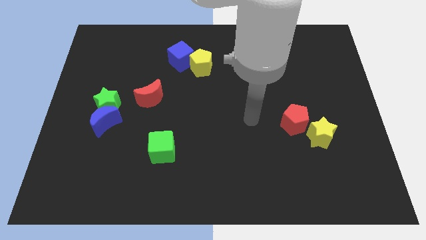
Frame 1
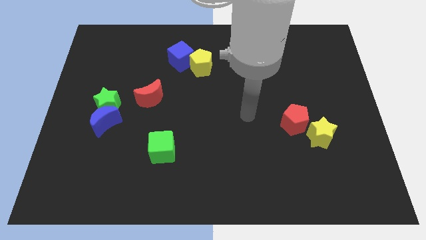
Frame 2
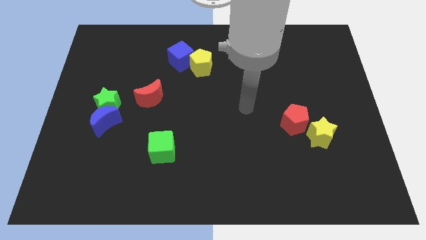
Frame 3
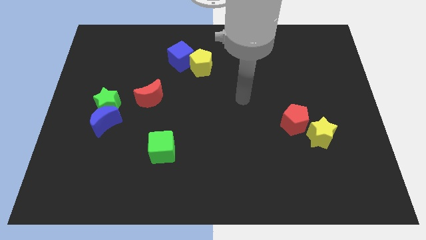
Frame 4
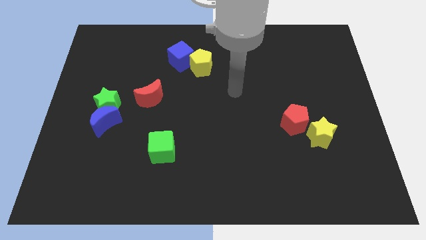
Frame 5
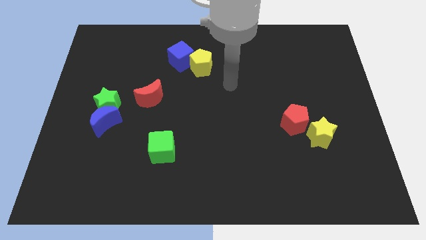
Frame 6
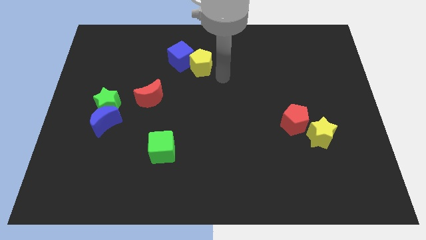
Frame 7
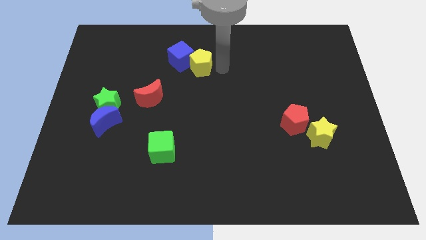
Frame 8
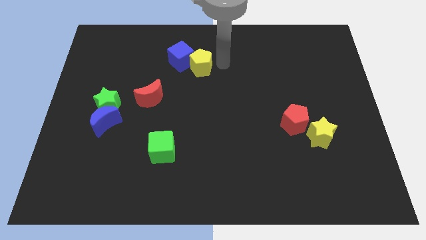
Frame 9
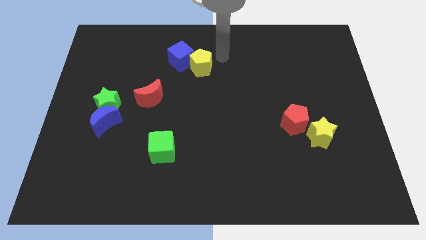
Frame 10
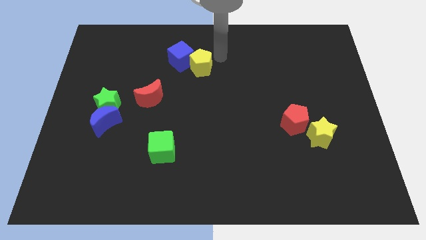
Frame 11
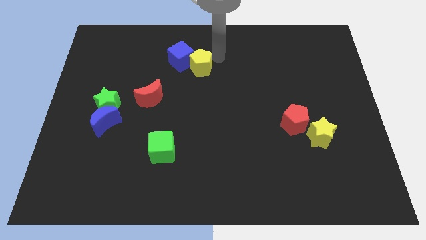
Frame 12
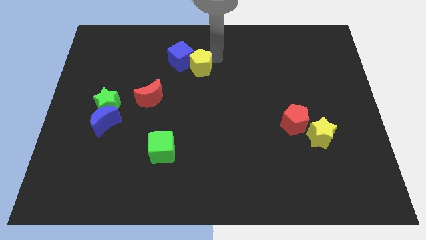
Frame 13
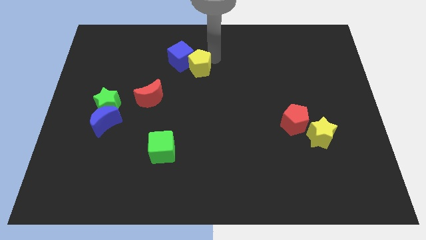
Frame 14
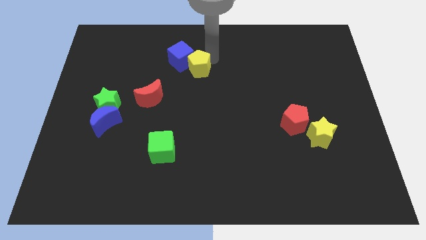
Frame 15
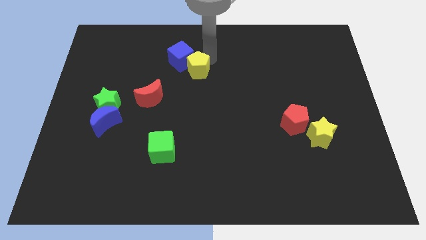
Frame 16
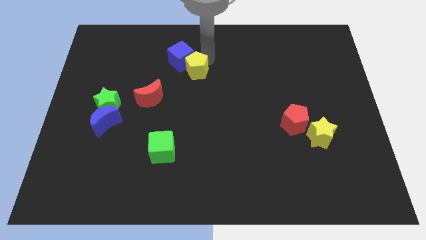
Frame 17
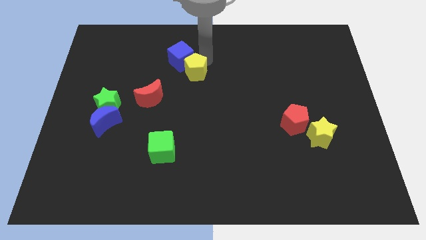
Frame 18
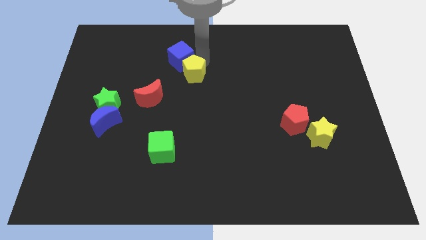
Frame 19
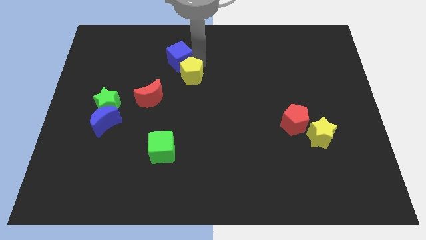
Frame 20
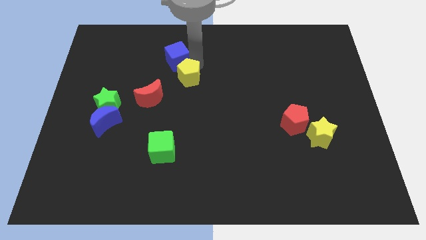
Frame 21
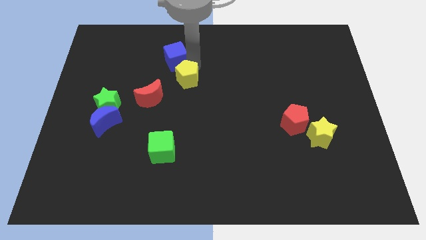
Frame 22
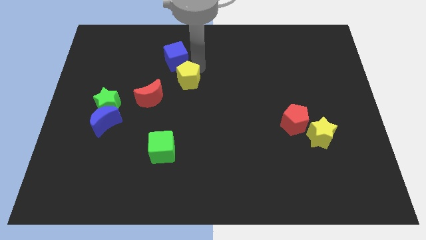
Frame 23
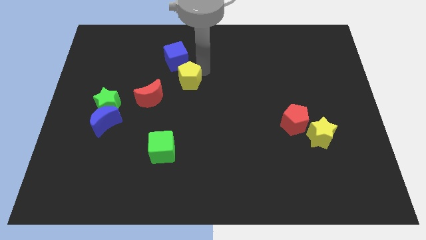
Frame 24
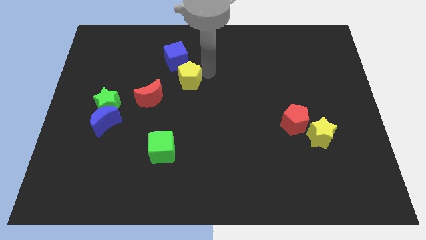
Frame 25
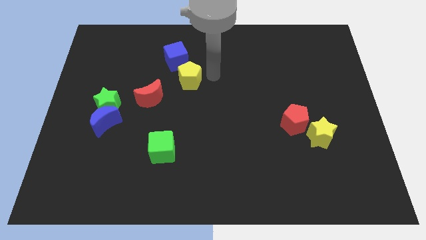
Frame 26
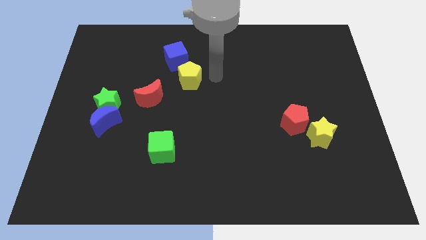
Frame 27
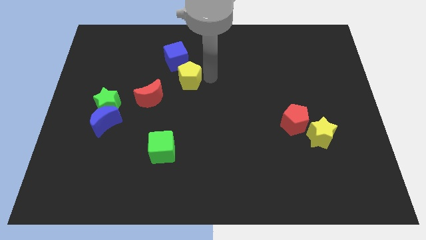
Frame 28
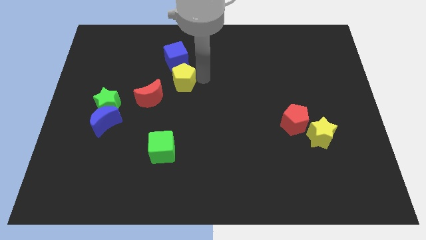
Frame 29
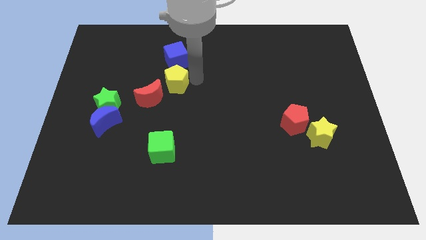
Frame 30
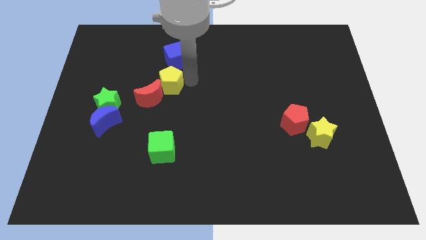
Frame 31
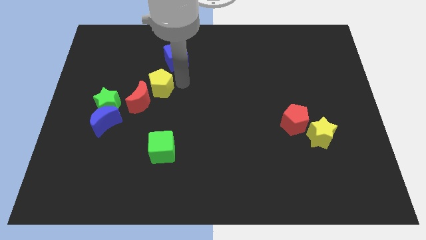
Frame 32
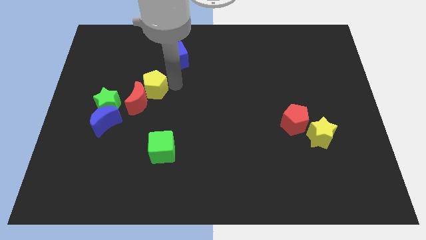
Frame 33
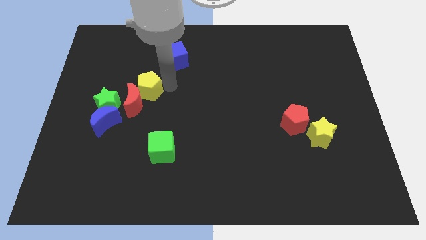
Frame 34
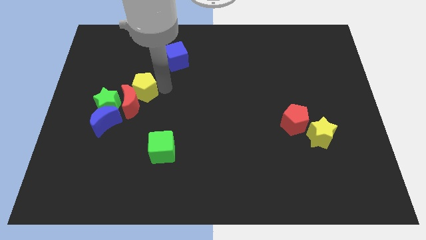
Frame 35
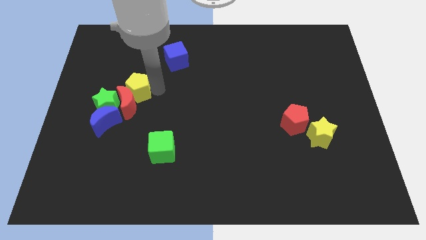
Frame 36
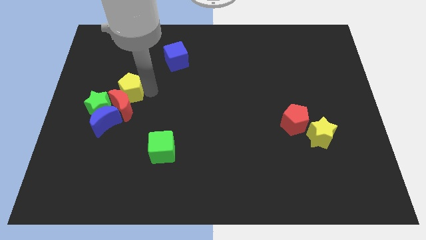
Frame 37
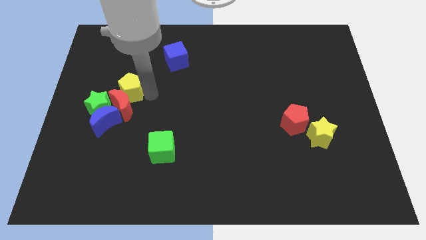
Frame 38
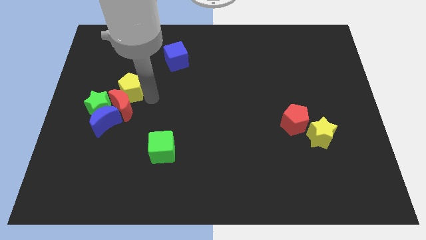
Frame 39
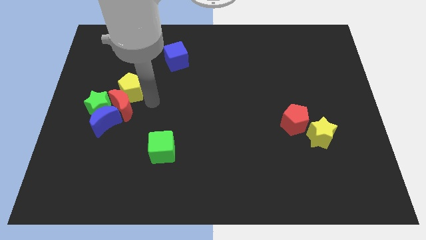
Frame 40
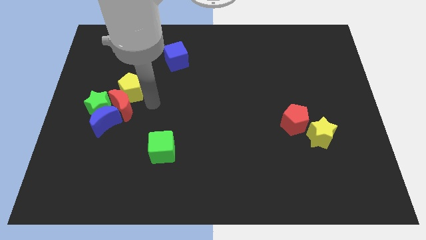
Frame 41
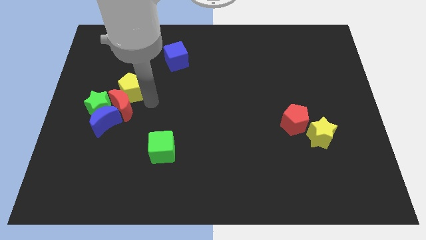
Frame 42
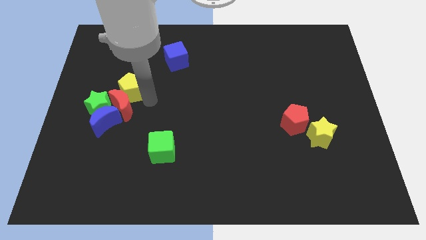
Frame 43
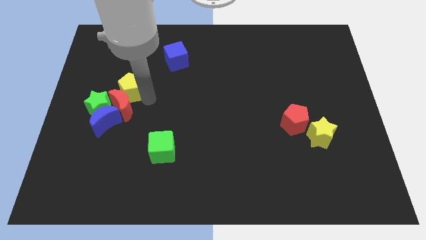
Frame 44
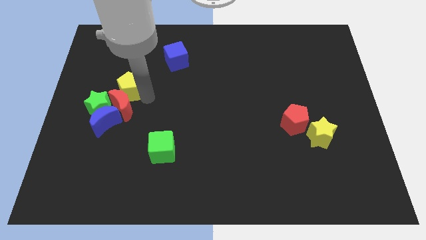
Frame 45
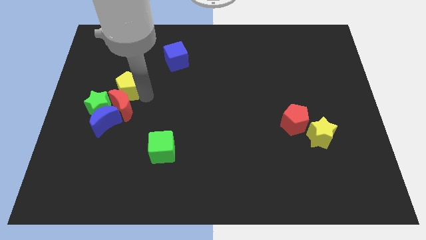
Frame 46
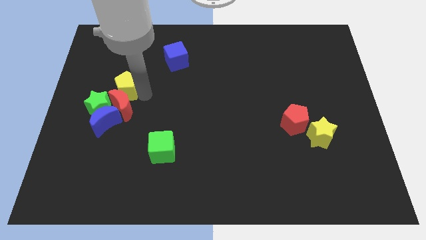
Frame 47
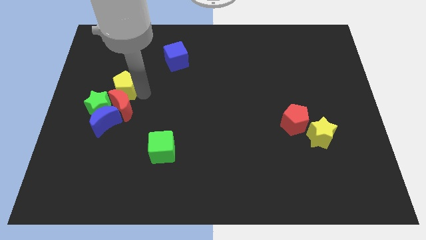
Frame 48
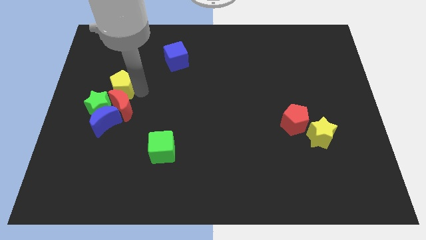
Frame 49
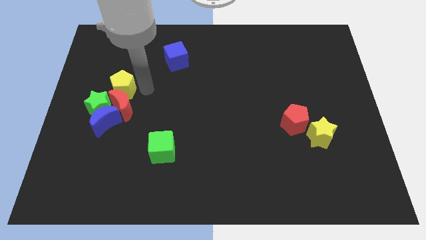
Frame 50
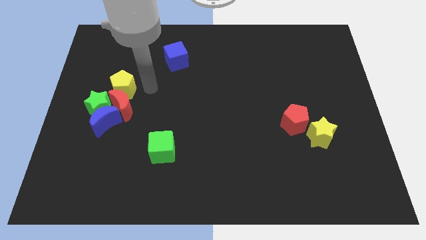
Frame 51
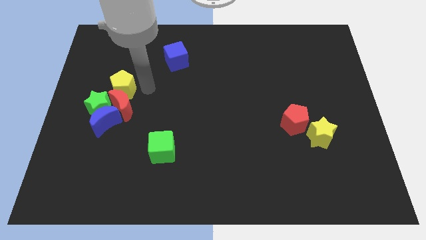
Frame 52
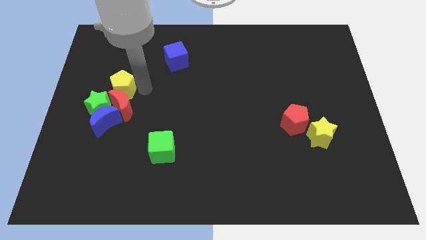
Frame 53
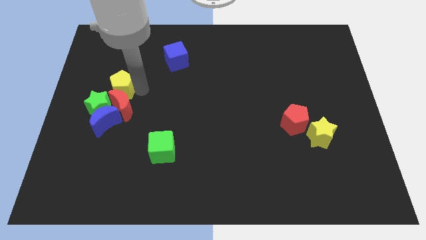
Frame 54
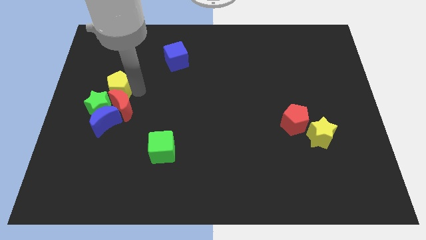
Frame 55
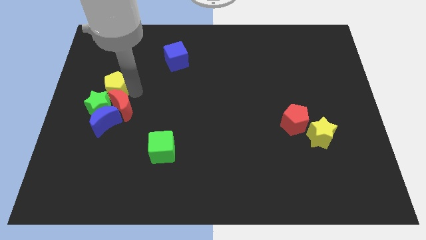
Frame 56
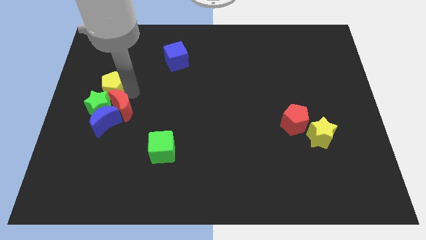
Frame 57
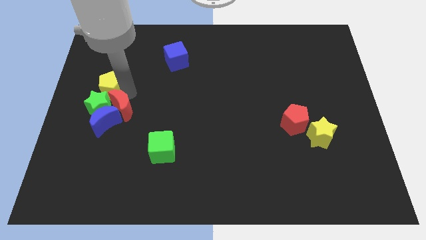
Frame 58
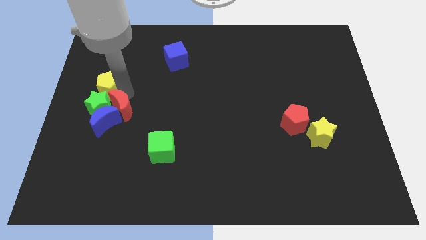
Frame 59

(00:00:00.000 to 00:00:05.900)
put the yellow pentagon to the left side of the board

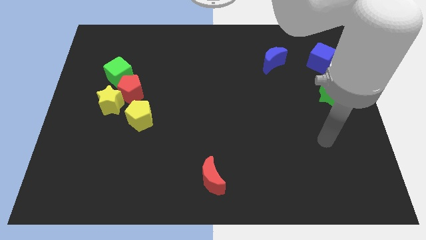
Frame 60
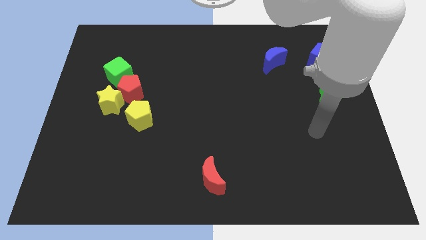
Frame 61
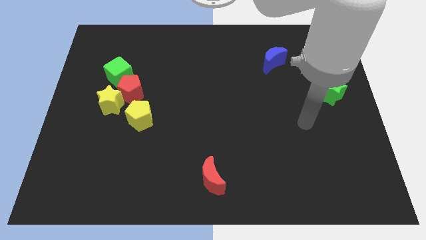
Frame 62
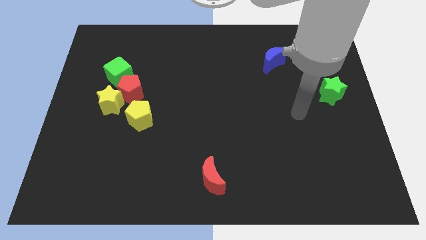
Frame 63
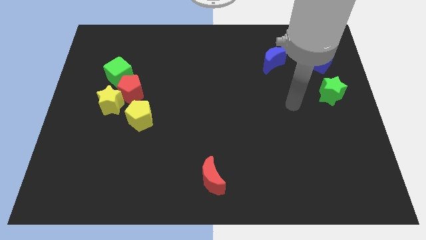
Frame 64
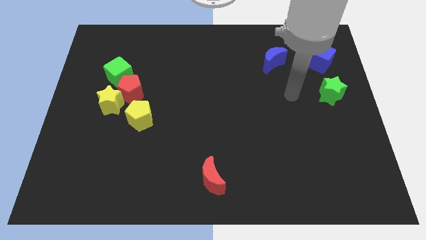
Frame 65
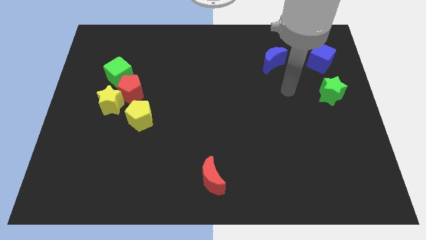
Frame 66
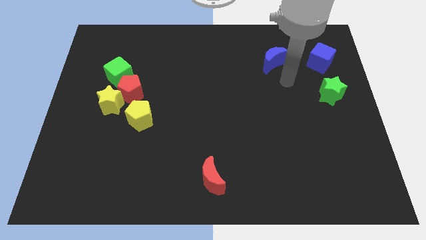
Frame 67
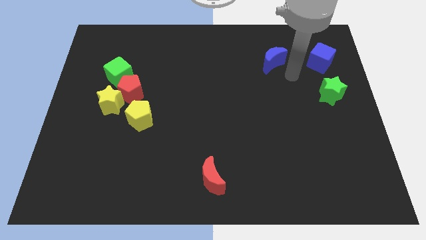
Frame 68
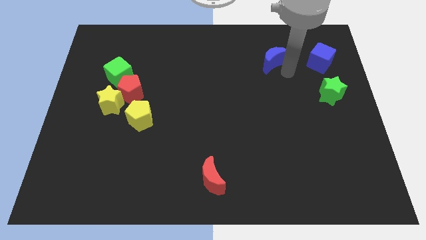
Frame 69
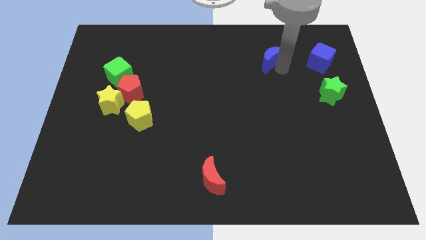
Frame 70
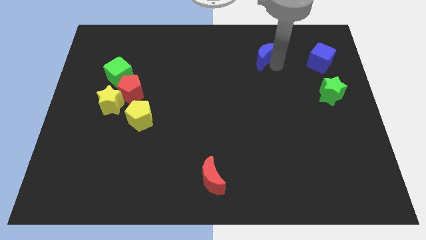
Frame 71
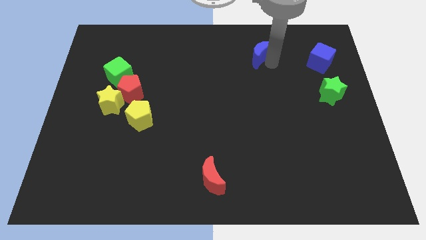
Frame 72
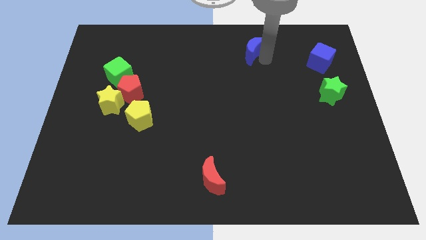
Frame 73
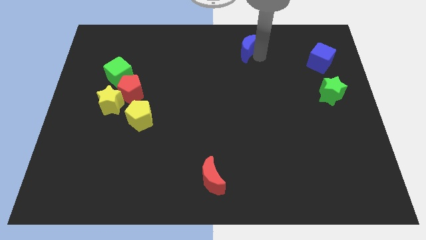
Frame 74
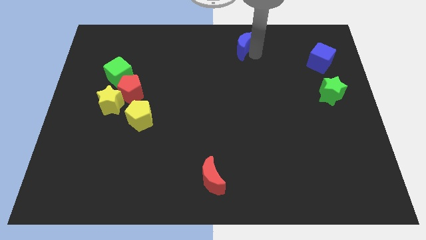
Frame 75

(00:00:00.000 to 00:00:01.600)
move the blue moon to the top
